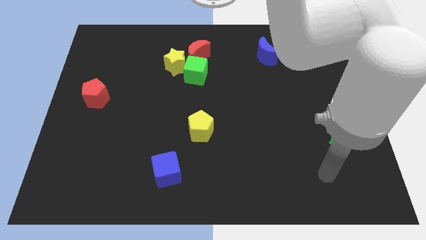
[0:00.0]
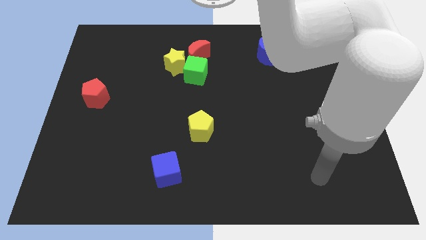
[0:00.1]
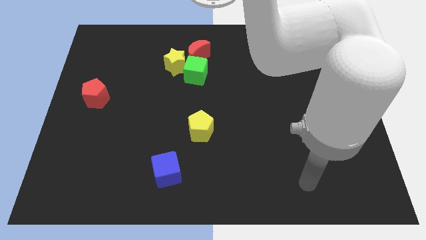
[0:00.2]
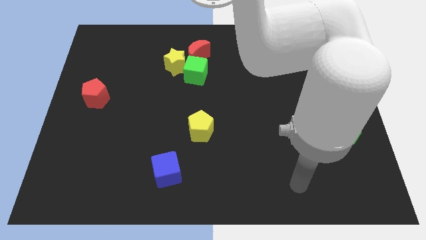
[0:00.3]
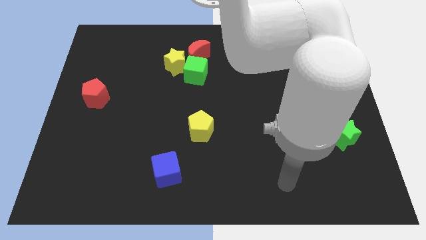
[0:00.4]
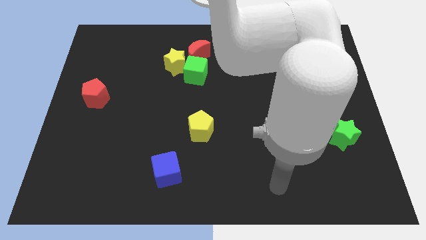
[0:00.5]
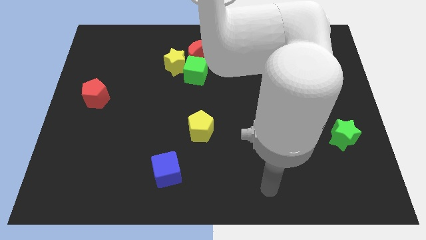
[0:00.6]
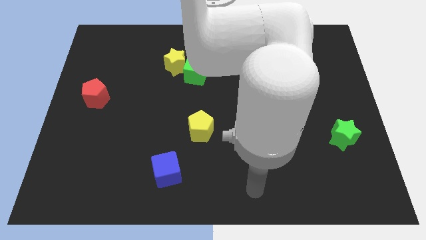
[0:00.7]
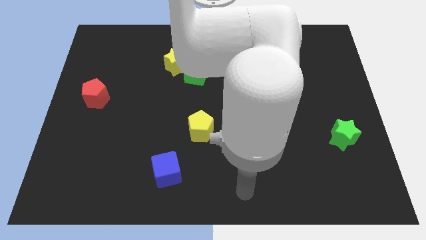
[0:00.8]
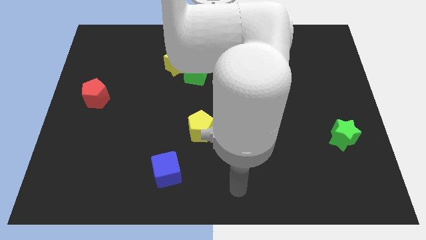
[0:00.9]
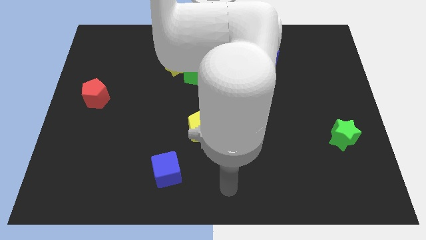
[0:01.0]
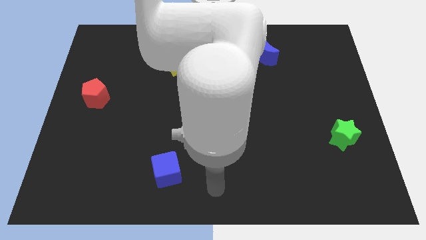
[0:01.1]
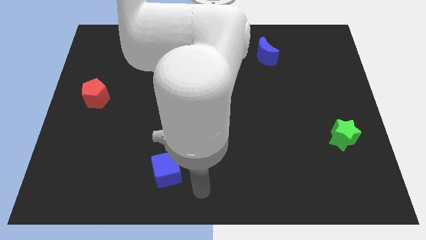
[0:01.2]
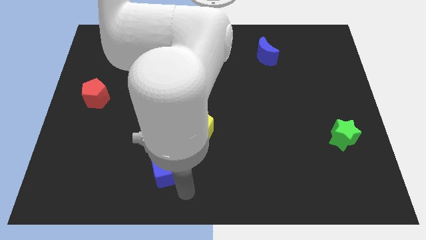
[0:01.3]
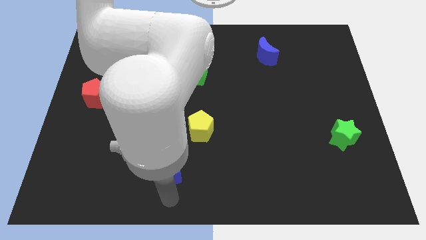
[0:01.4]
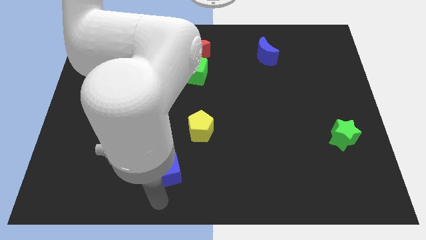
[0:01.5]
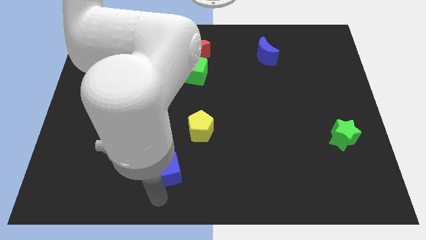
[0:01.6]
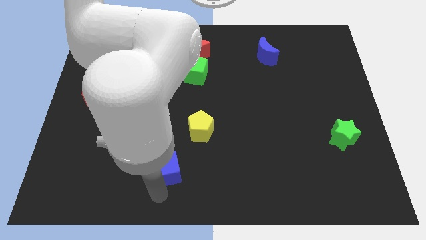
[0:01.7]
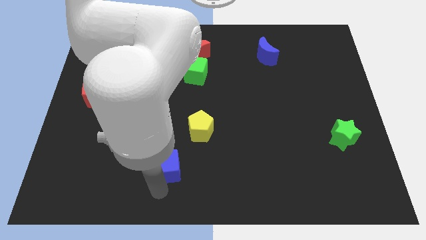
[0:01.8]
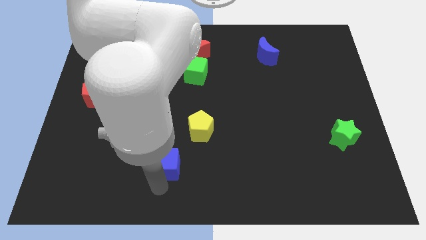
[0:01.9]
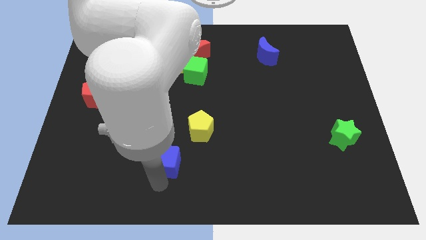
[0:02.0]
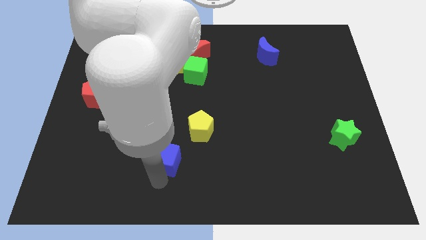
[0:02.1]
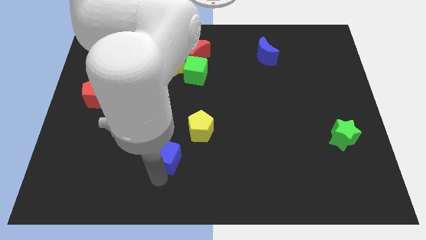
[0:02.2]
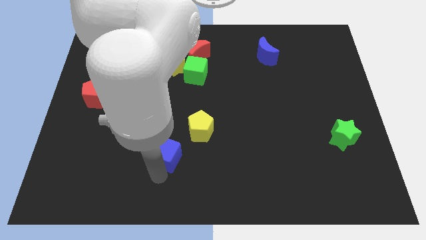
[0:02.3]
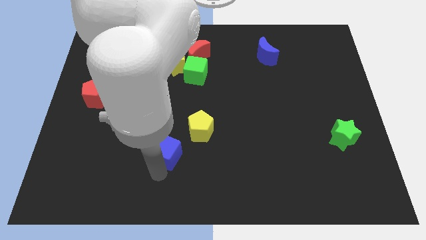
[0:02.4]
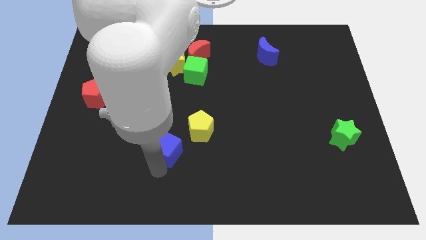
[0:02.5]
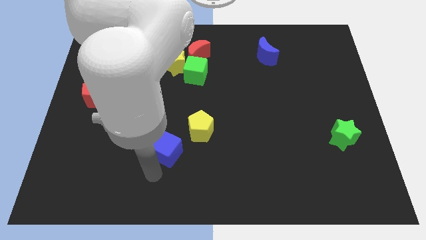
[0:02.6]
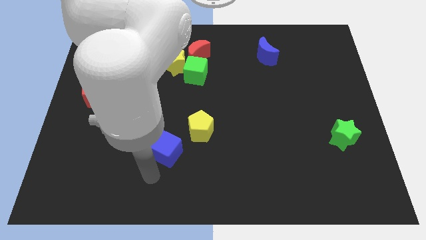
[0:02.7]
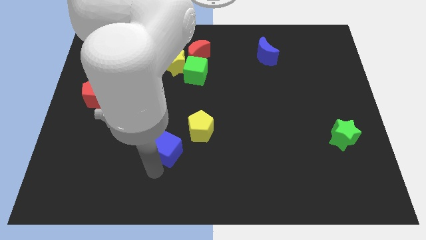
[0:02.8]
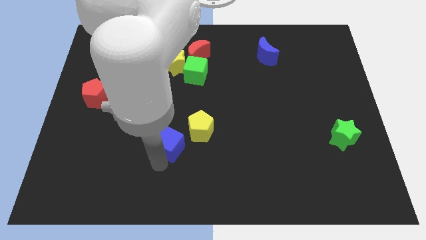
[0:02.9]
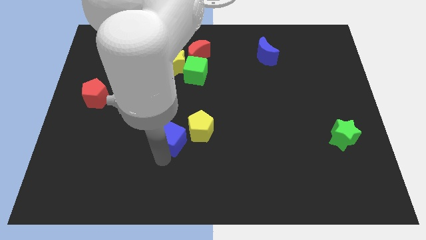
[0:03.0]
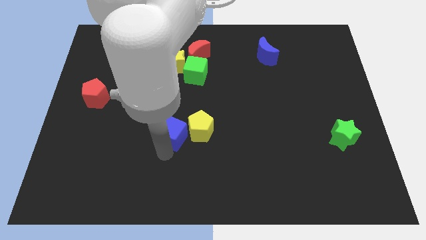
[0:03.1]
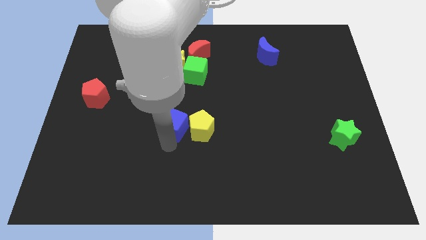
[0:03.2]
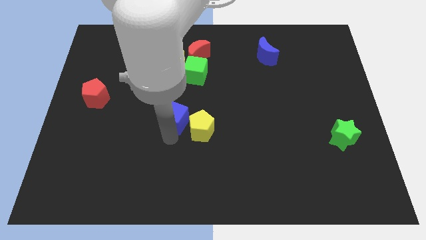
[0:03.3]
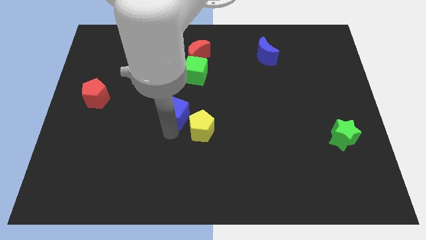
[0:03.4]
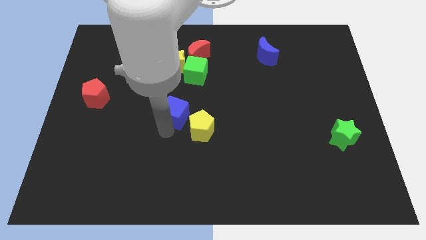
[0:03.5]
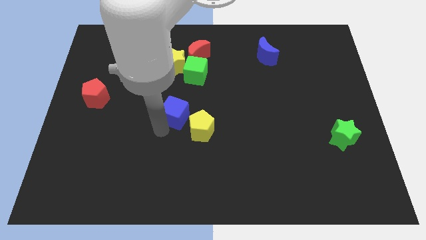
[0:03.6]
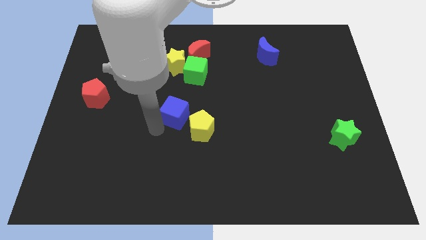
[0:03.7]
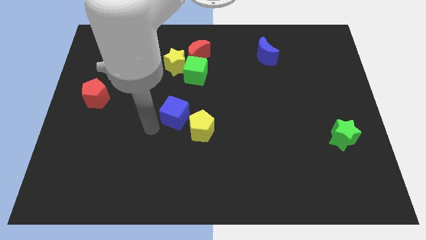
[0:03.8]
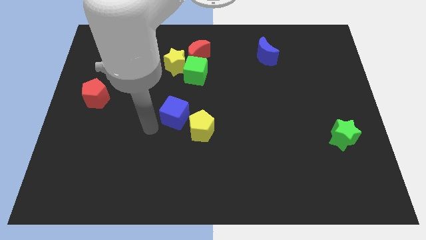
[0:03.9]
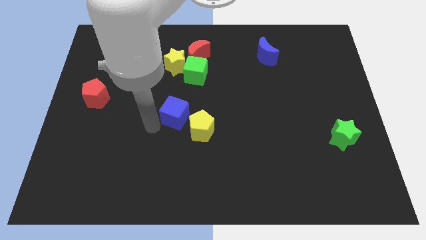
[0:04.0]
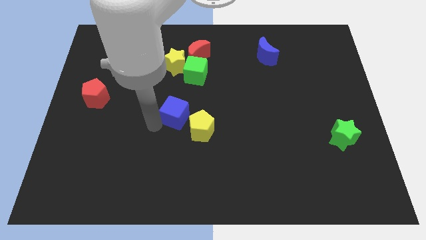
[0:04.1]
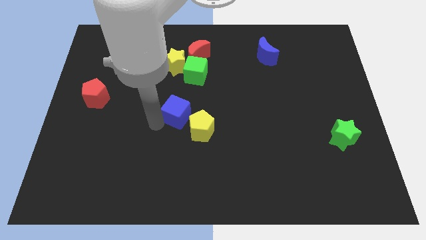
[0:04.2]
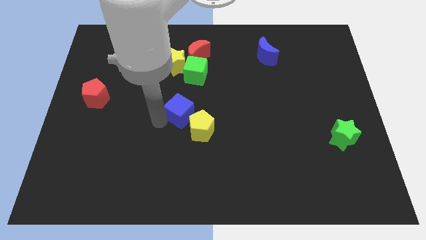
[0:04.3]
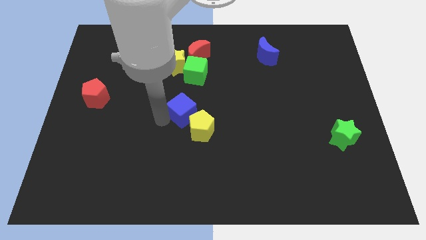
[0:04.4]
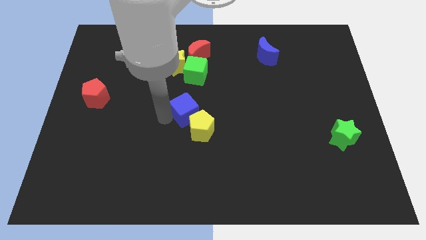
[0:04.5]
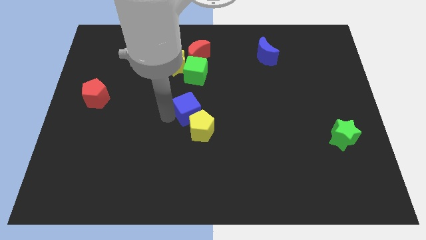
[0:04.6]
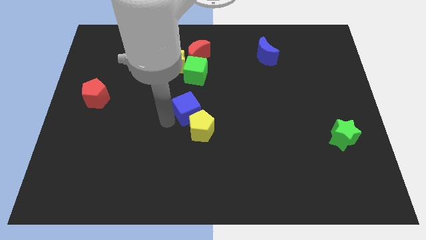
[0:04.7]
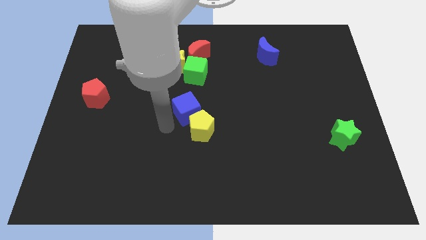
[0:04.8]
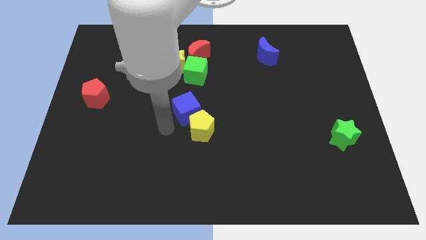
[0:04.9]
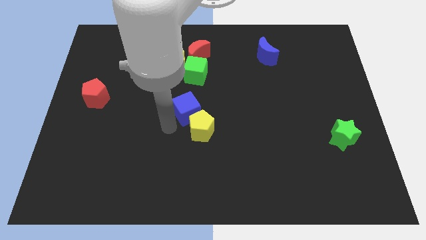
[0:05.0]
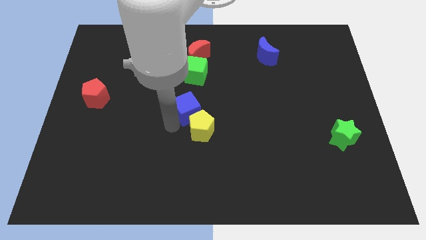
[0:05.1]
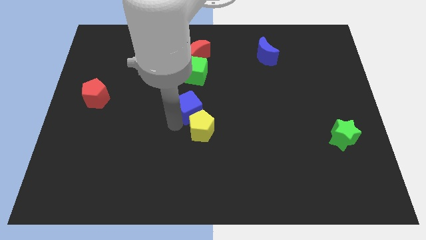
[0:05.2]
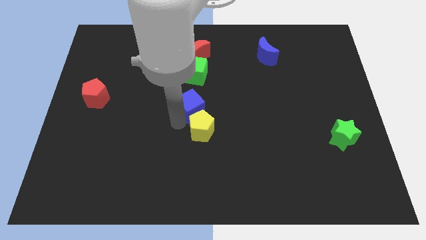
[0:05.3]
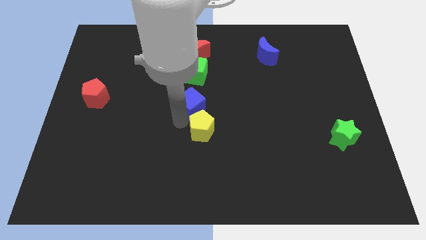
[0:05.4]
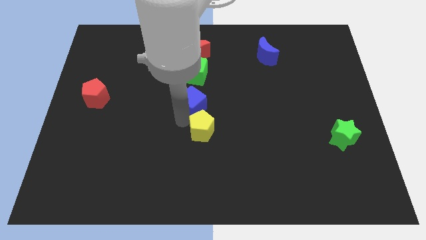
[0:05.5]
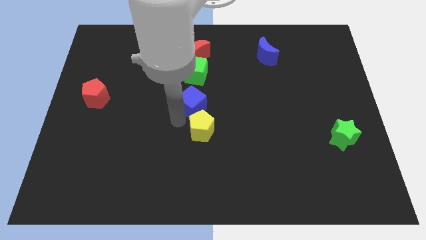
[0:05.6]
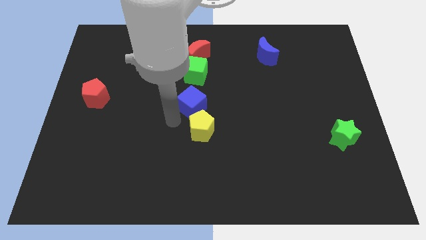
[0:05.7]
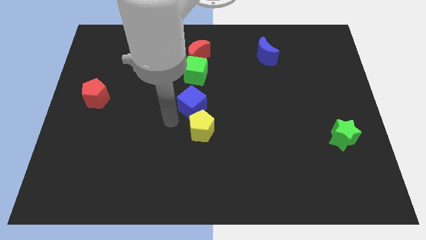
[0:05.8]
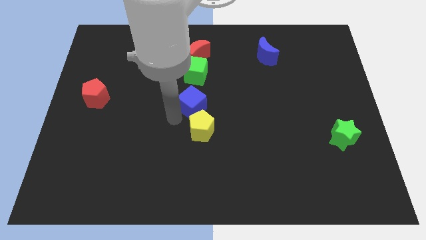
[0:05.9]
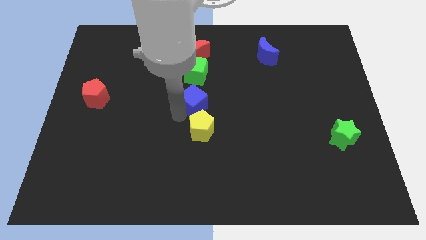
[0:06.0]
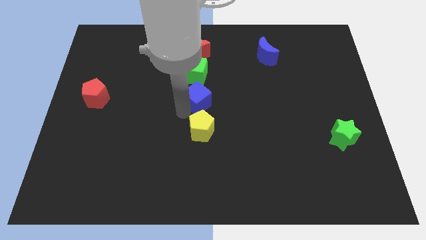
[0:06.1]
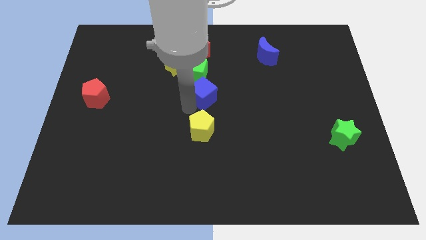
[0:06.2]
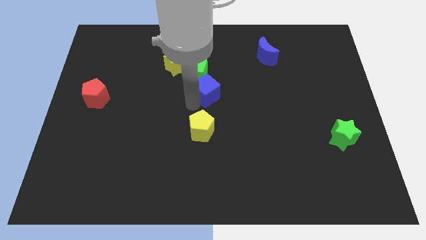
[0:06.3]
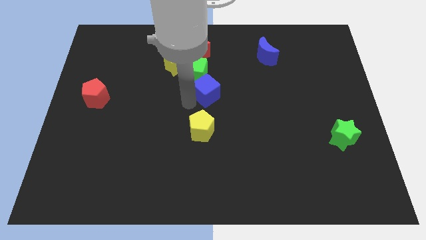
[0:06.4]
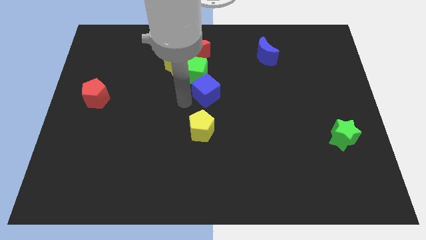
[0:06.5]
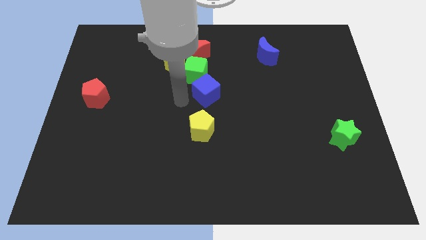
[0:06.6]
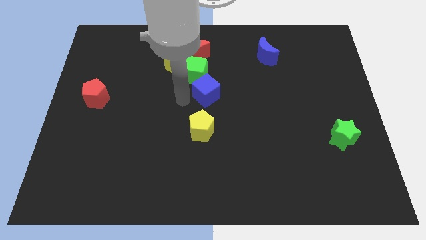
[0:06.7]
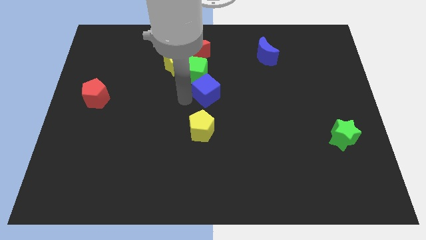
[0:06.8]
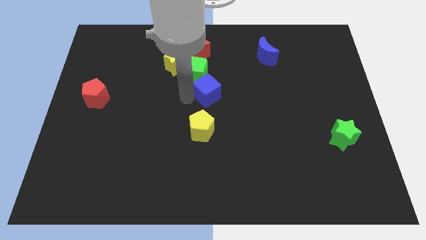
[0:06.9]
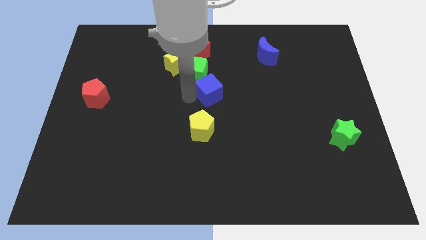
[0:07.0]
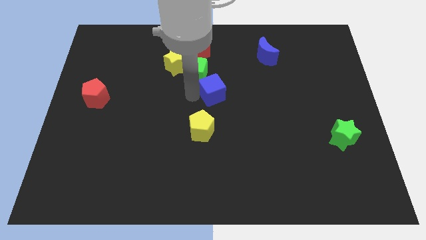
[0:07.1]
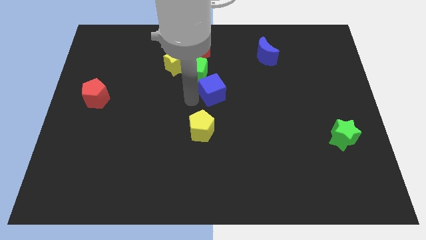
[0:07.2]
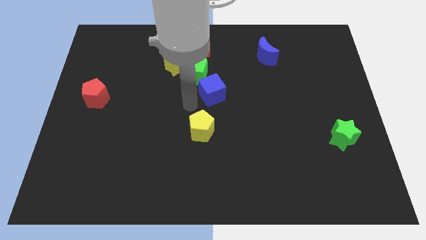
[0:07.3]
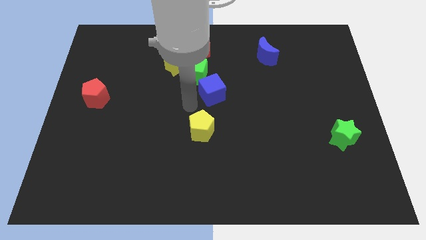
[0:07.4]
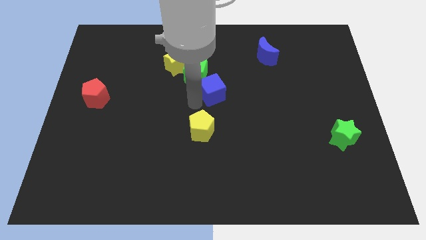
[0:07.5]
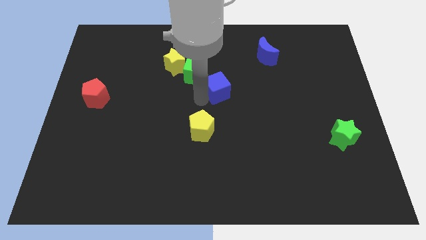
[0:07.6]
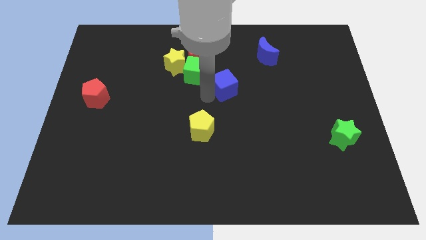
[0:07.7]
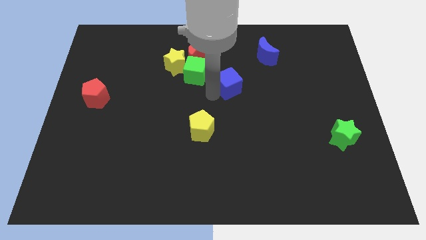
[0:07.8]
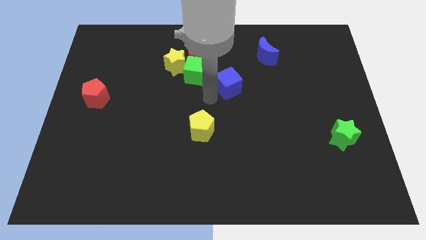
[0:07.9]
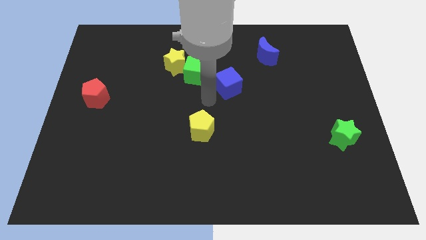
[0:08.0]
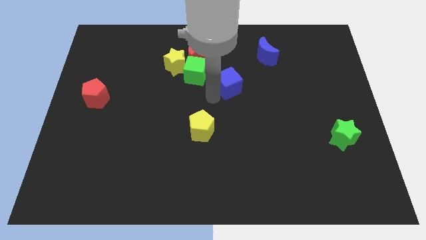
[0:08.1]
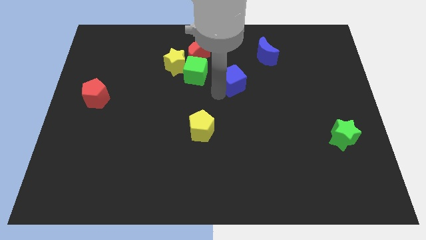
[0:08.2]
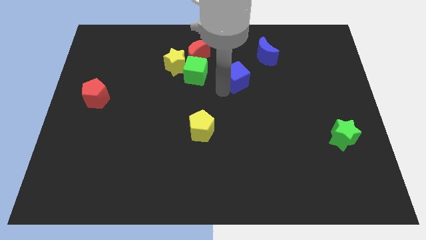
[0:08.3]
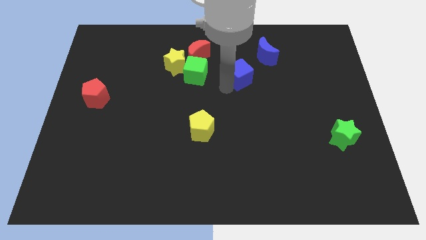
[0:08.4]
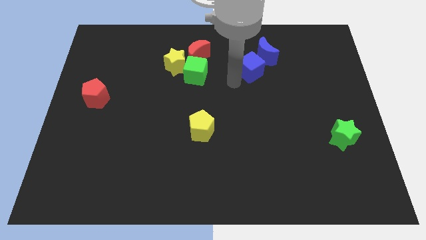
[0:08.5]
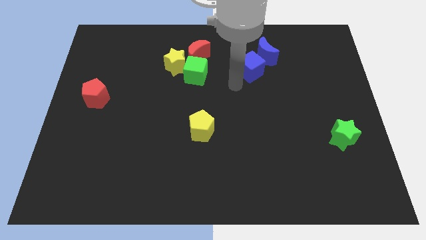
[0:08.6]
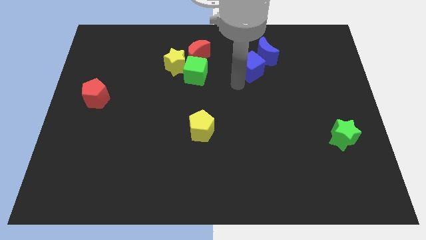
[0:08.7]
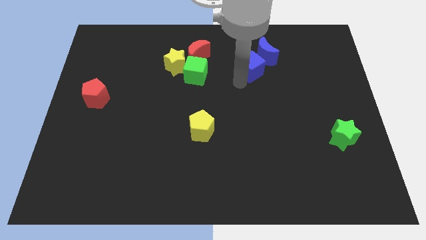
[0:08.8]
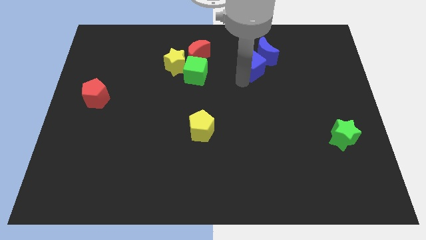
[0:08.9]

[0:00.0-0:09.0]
push the blue cube next to the blue moon
